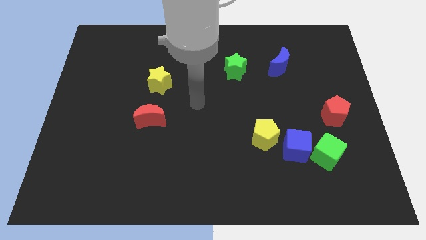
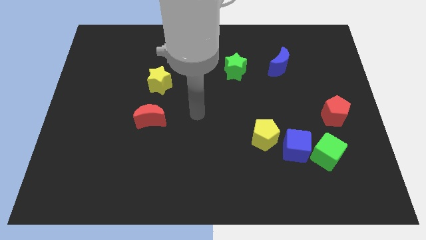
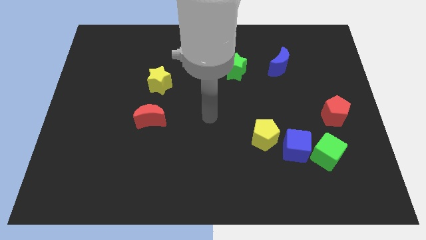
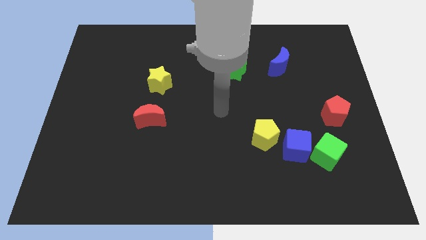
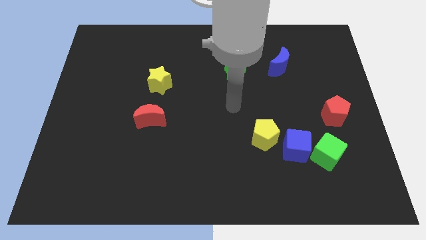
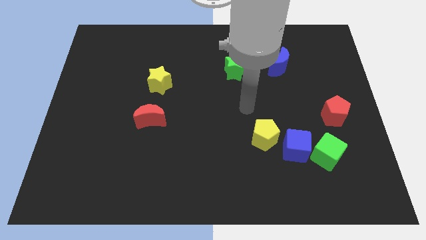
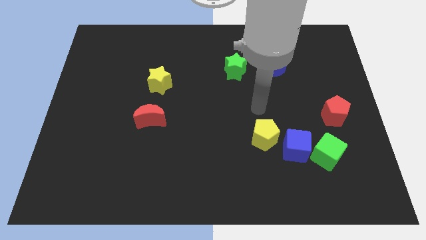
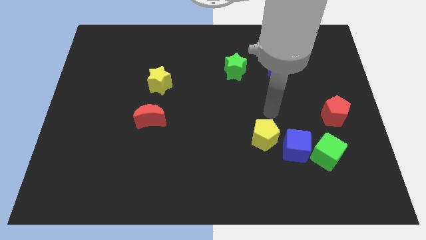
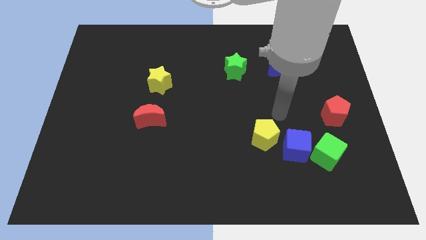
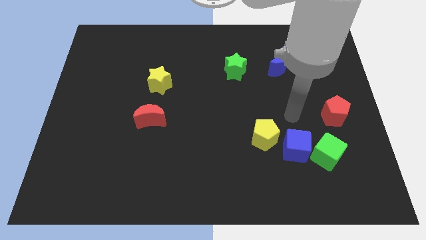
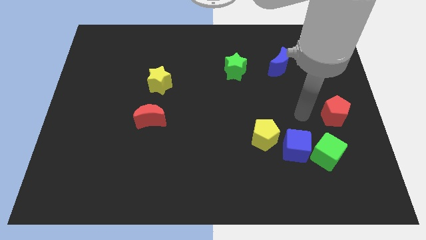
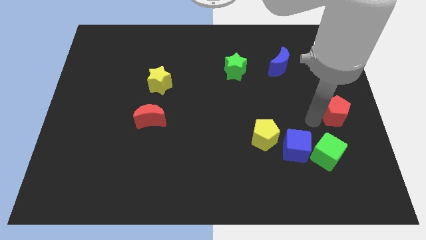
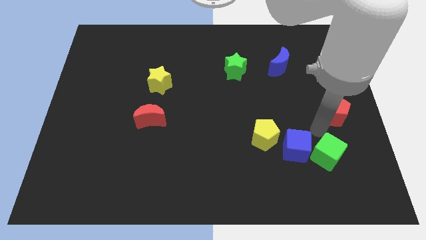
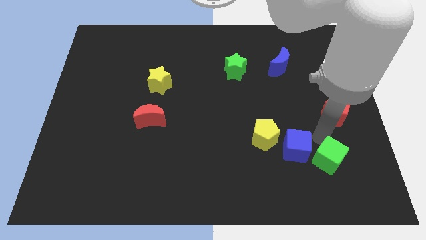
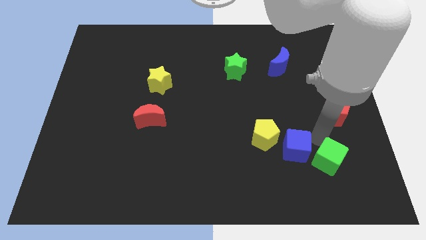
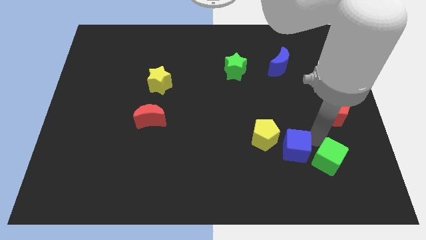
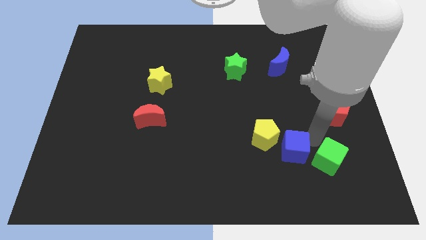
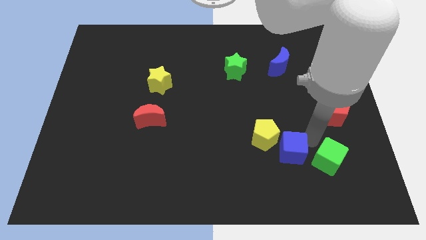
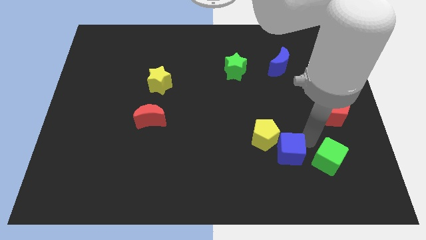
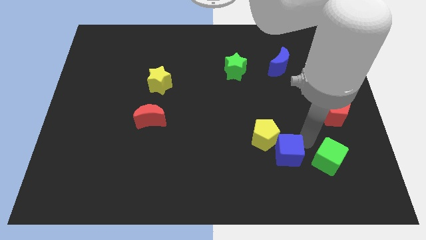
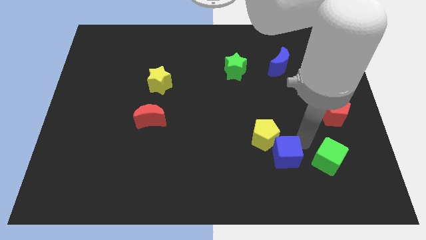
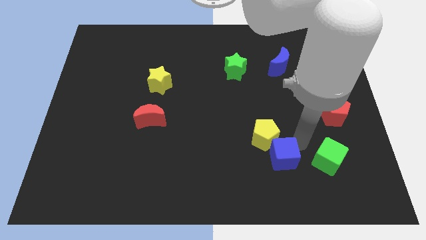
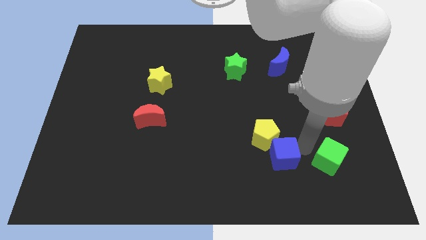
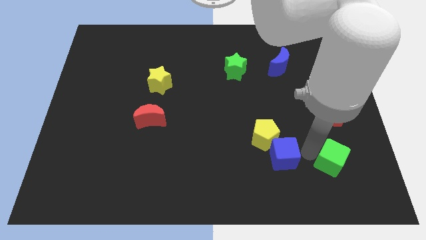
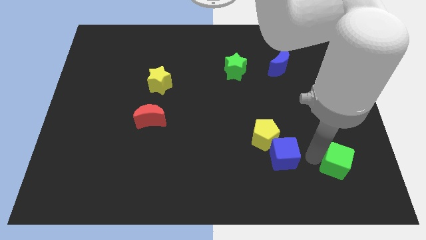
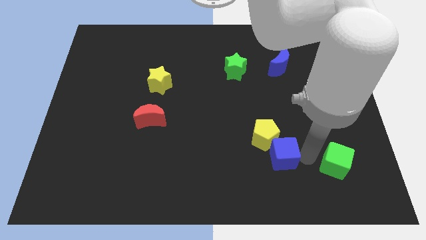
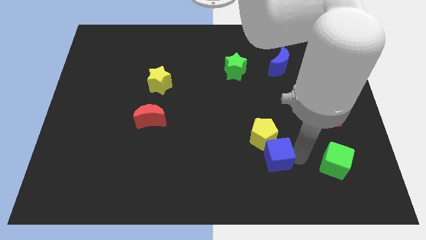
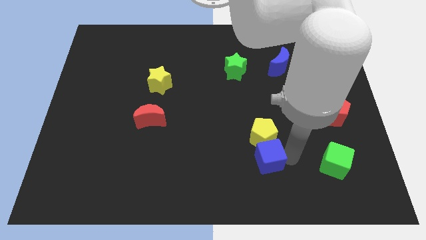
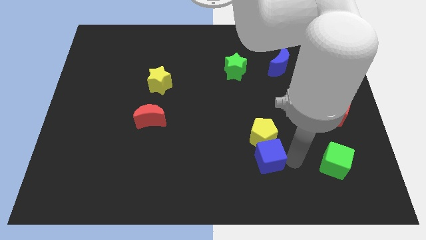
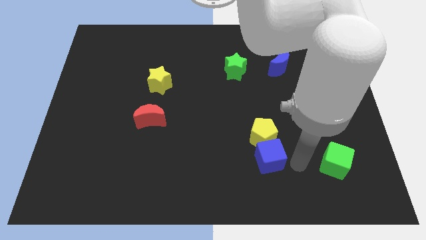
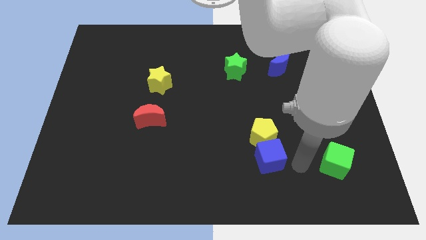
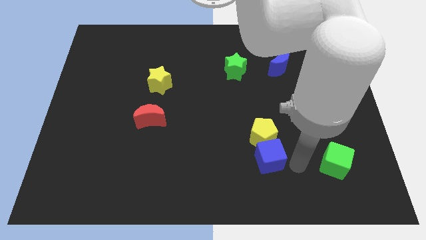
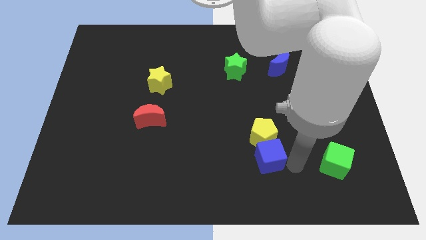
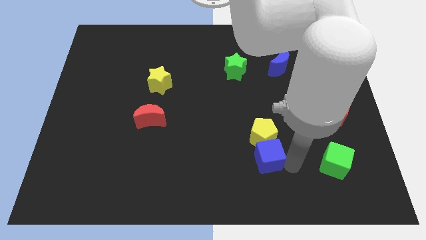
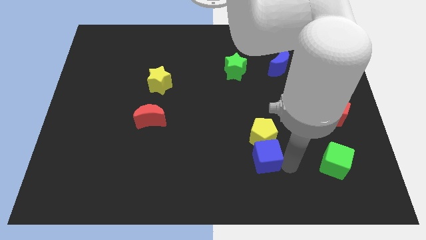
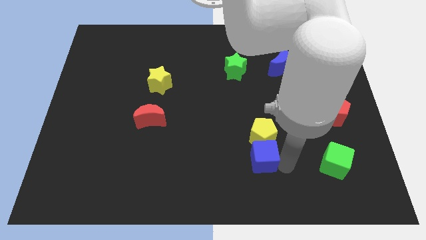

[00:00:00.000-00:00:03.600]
push the blue cube left a little

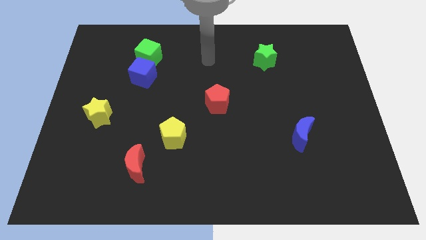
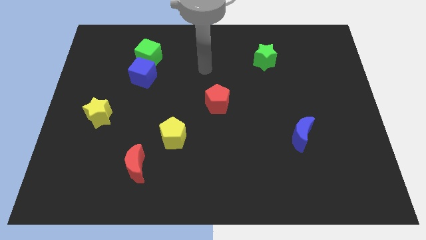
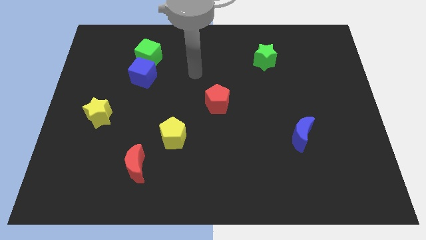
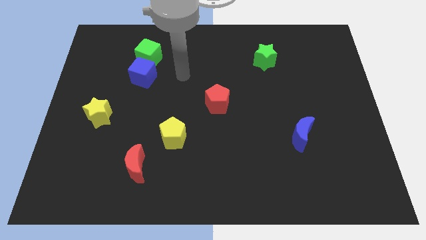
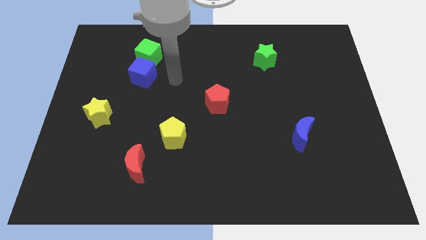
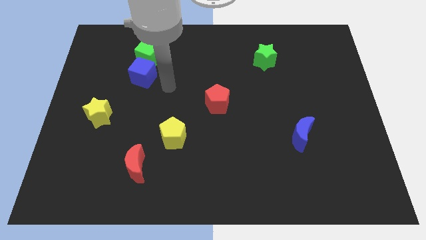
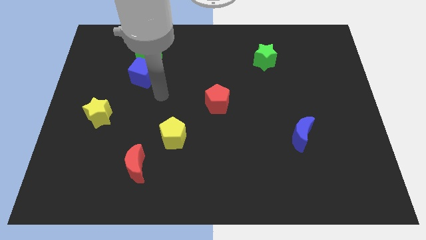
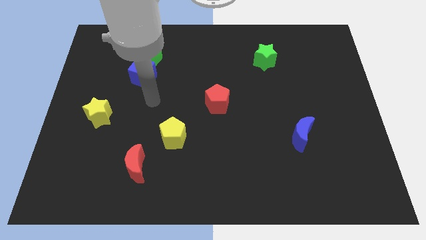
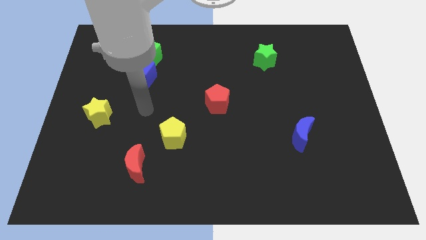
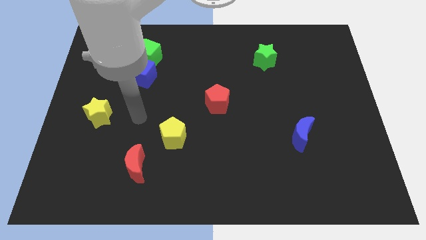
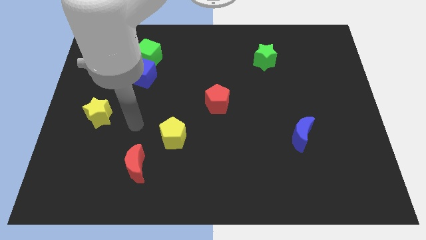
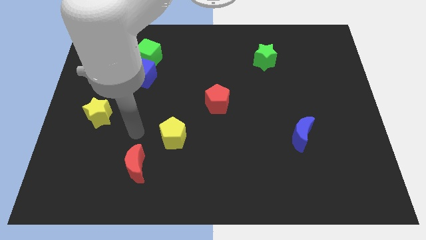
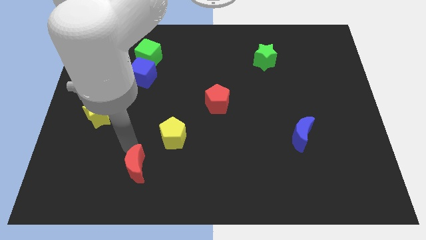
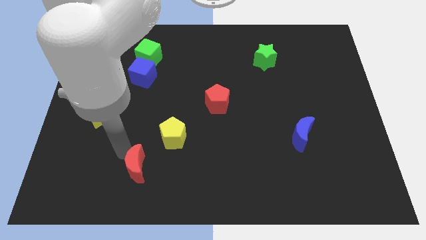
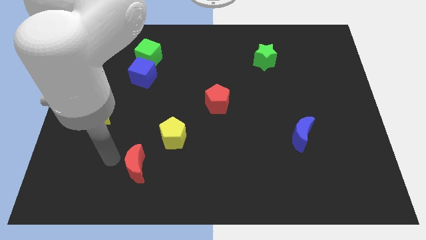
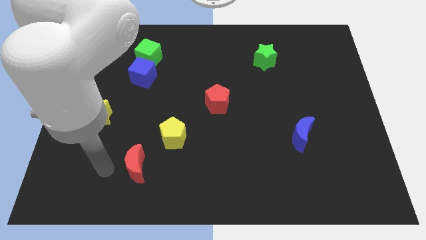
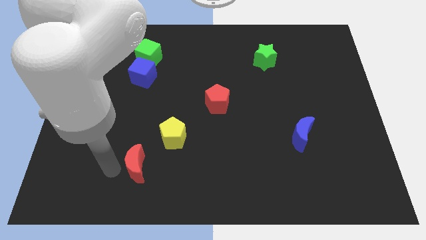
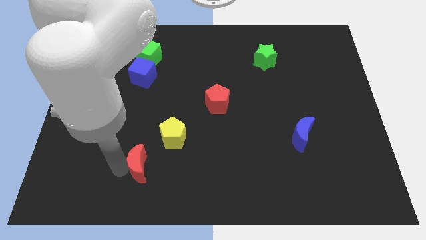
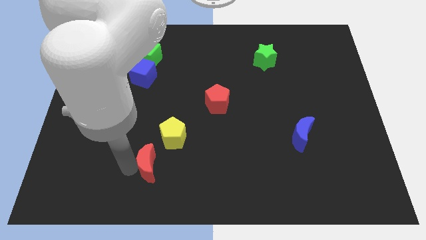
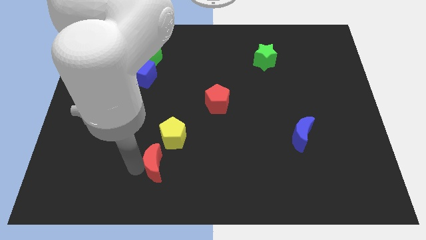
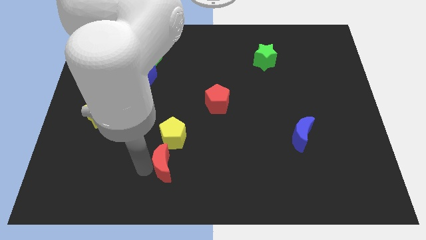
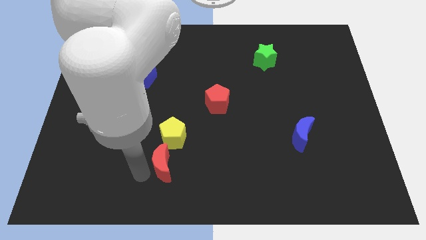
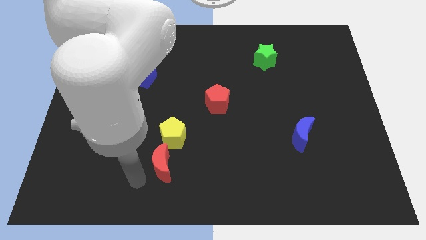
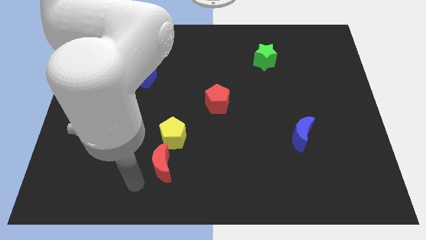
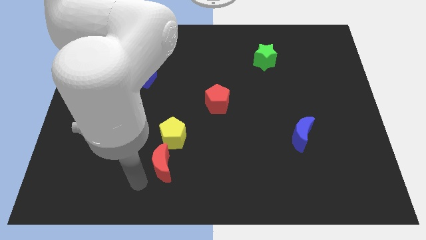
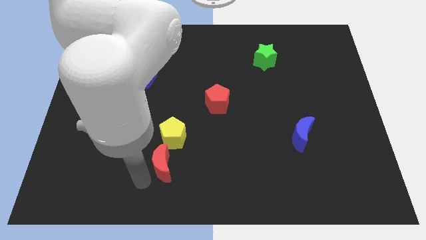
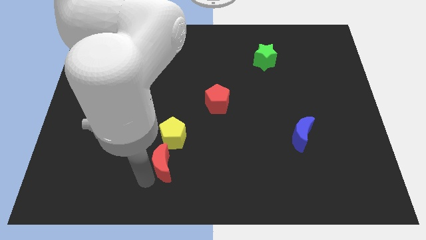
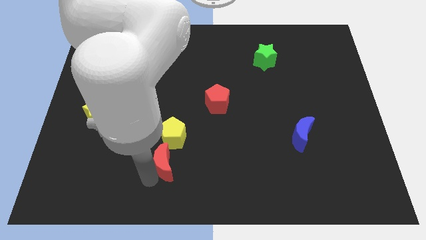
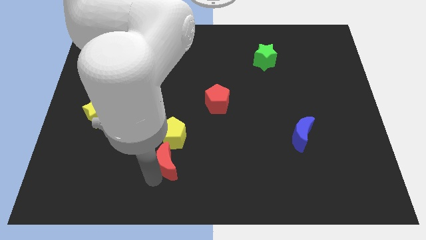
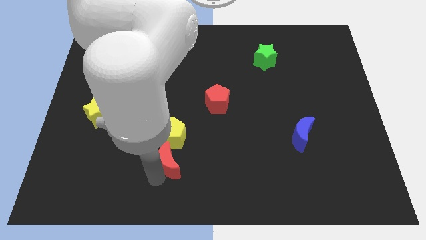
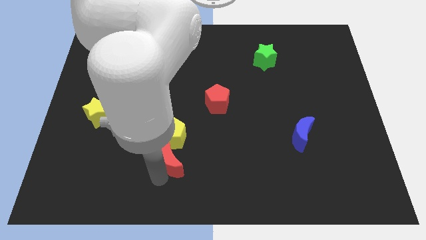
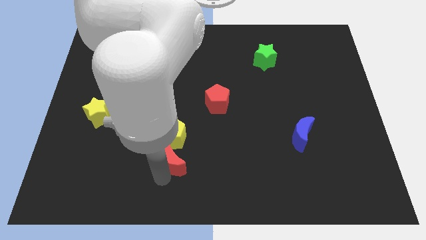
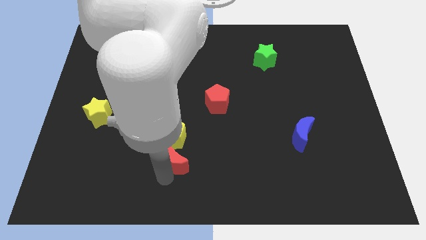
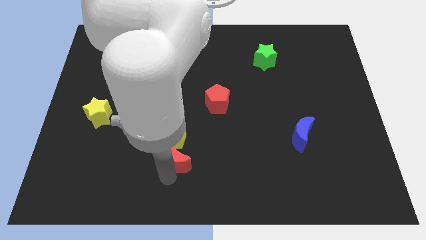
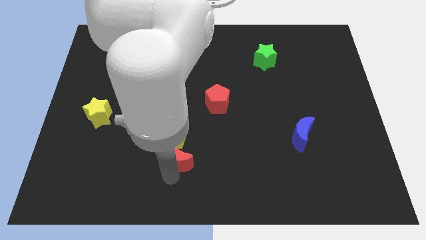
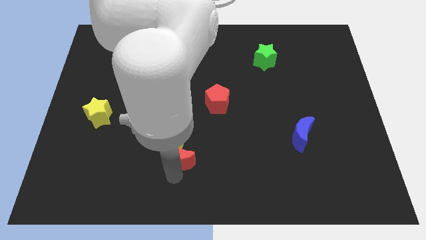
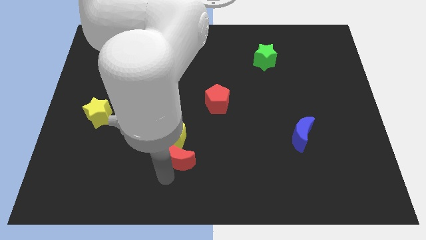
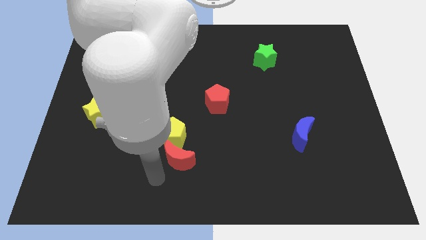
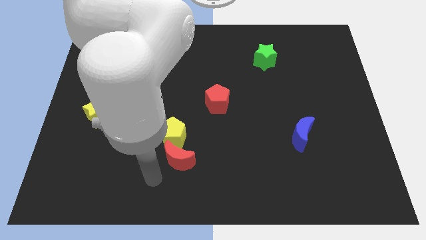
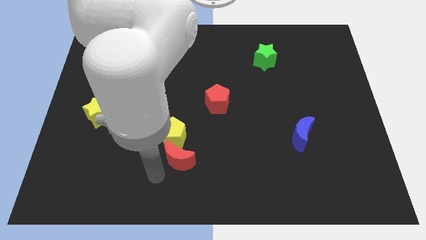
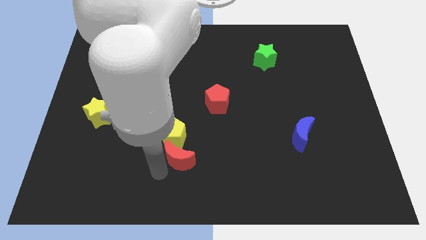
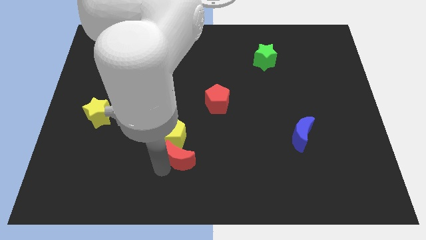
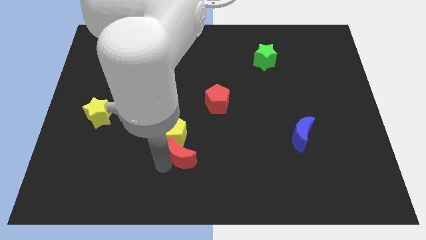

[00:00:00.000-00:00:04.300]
slightly slide the red moon upwards and right

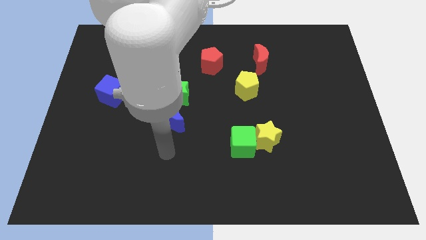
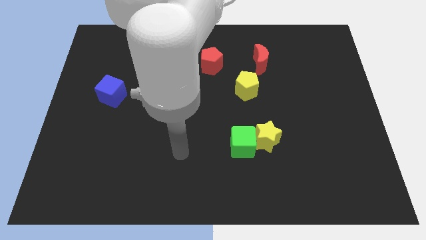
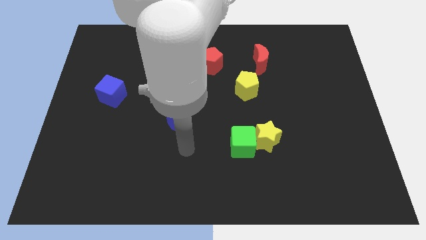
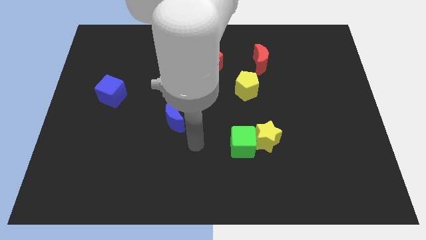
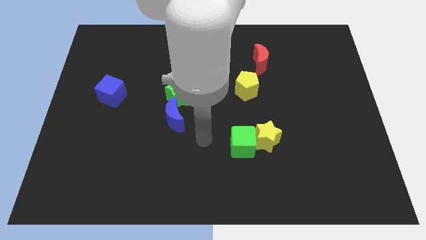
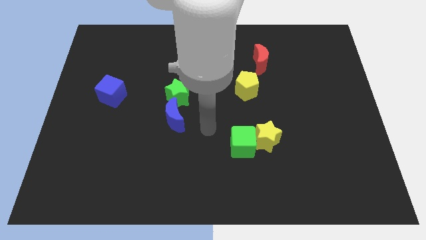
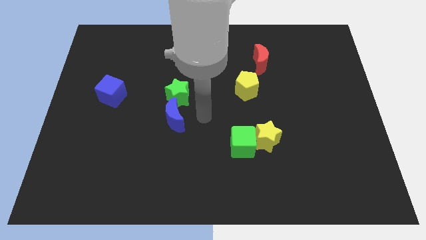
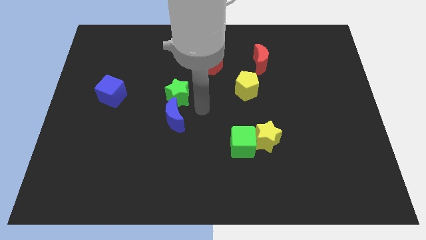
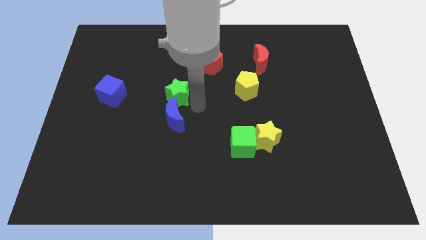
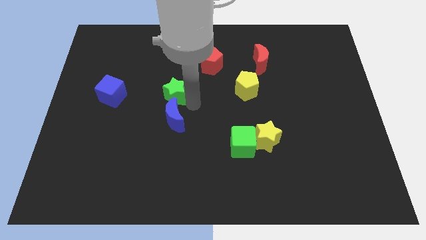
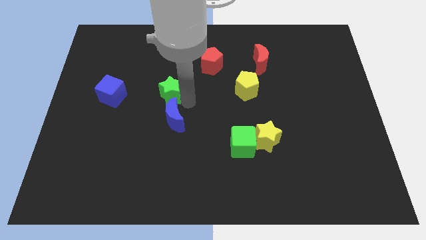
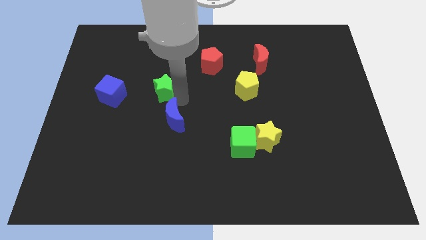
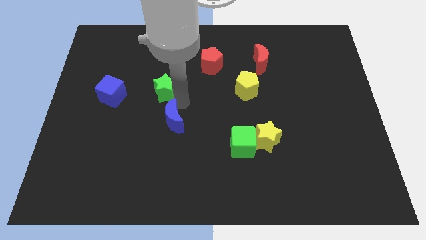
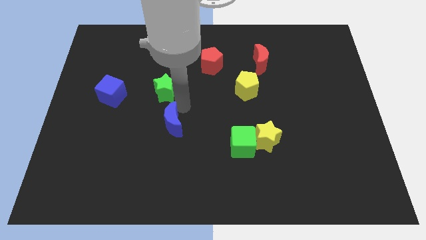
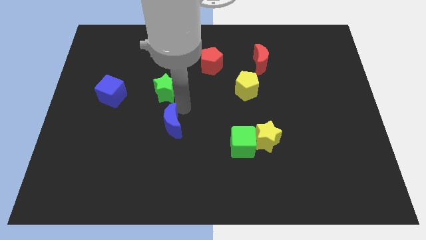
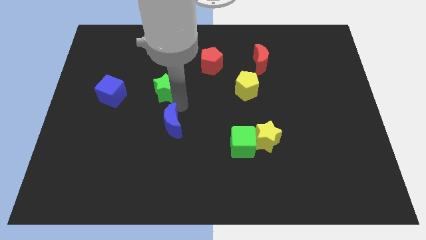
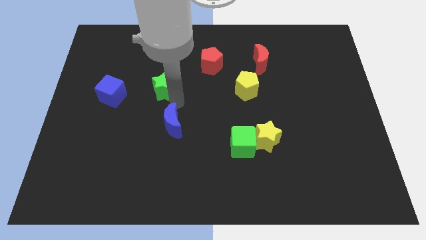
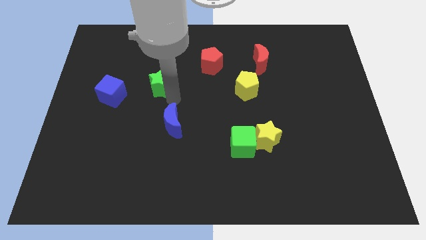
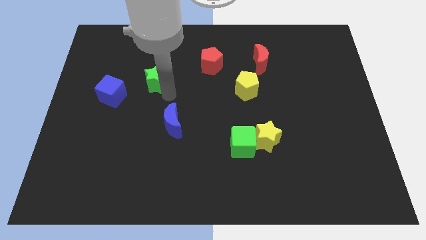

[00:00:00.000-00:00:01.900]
slide the green star slightly up and left diagonally
